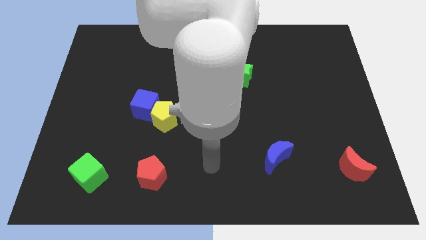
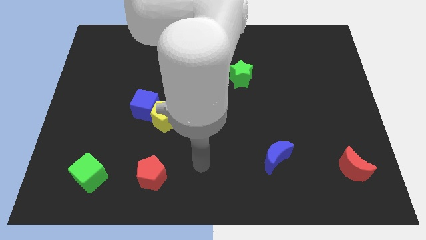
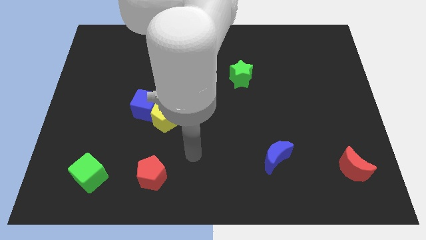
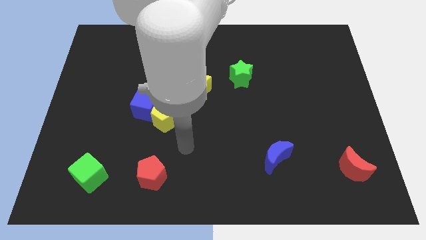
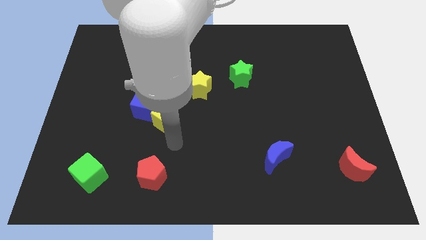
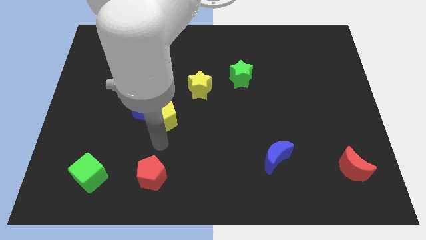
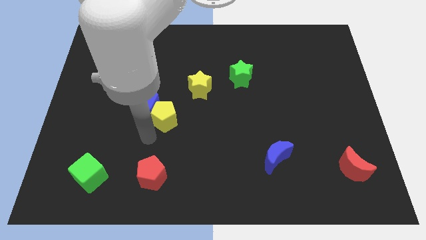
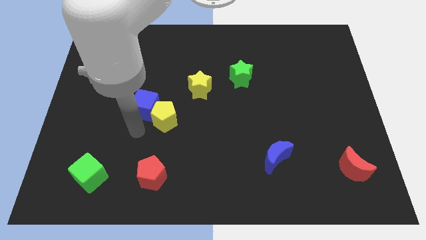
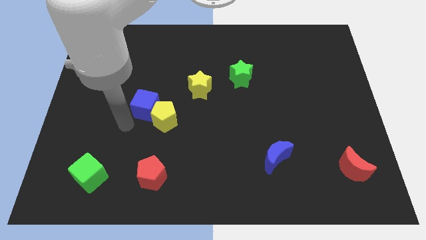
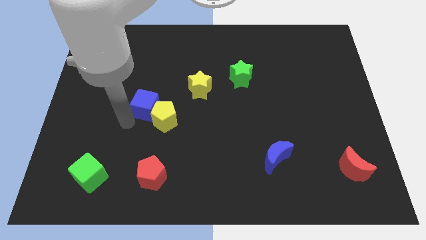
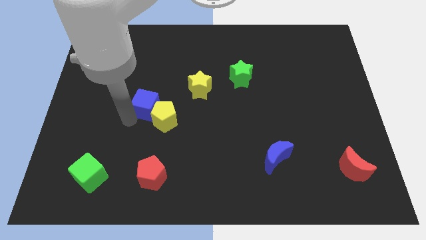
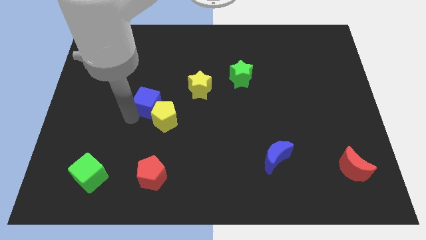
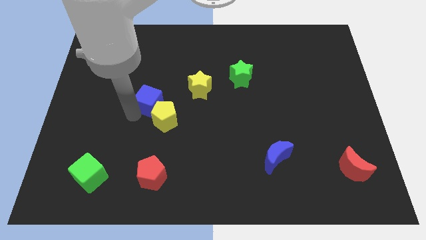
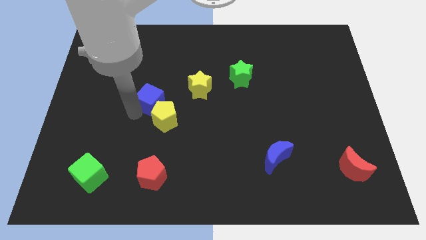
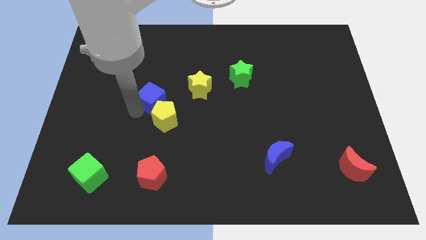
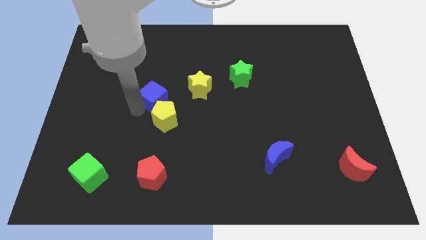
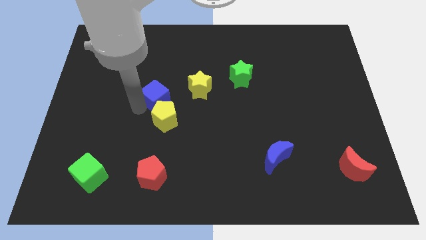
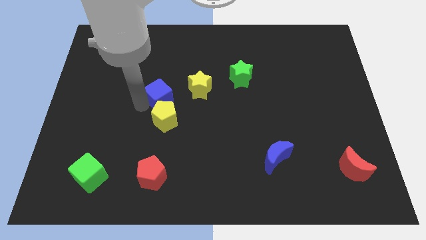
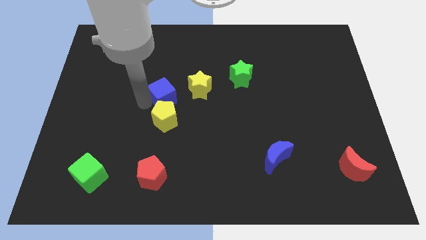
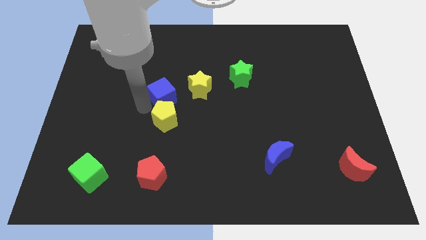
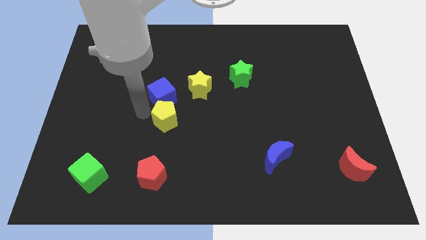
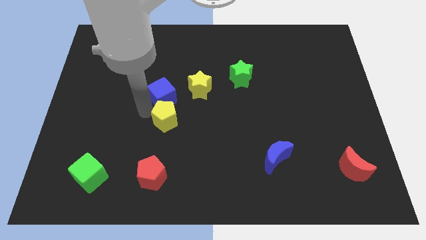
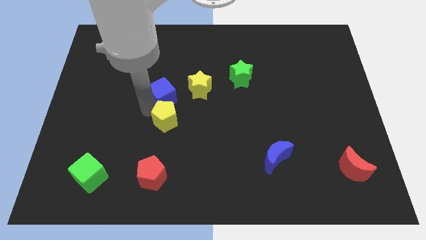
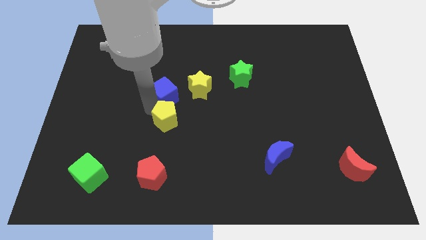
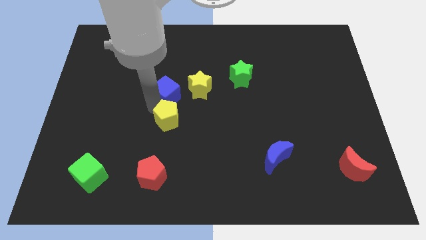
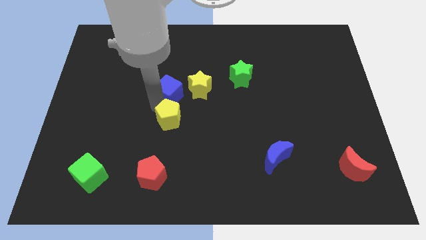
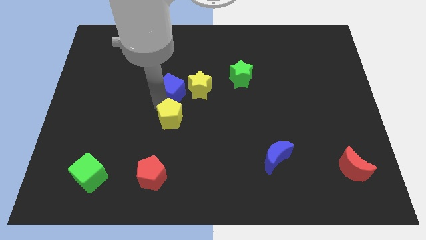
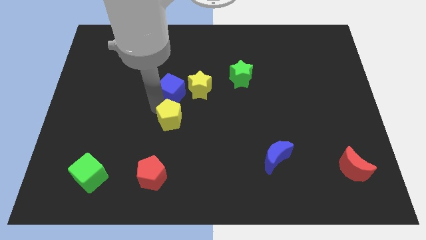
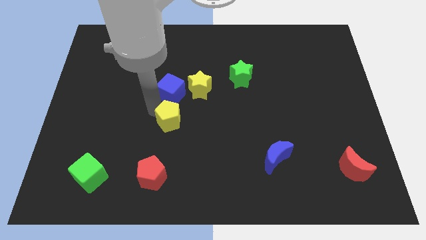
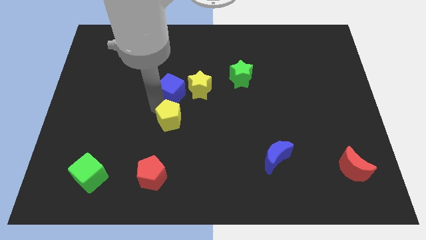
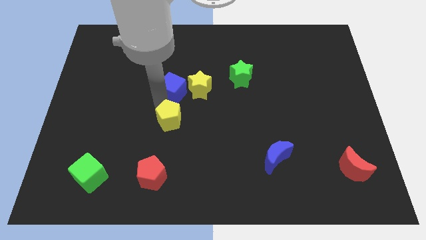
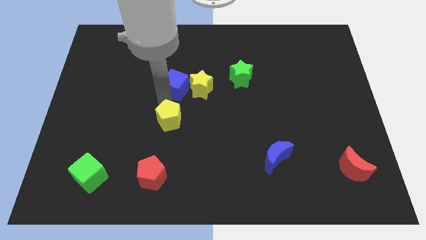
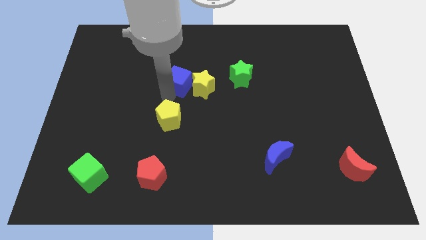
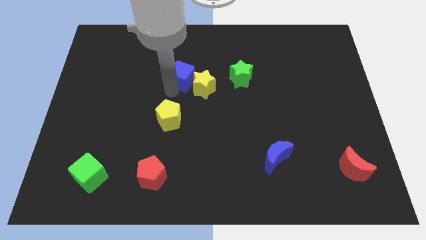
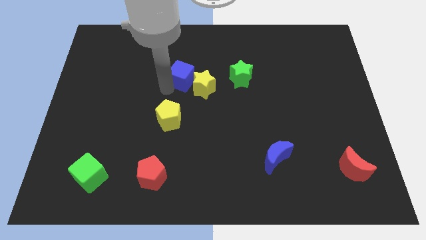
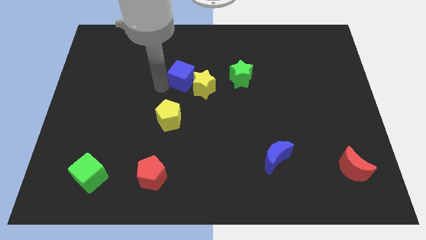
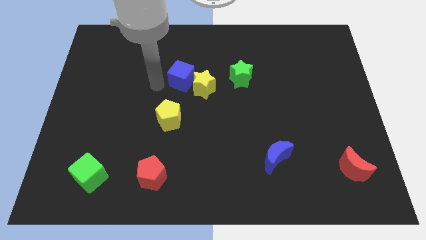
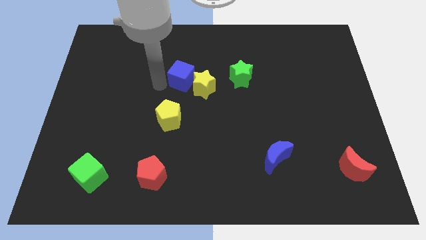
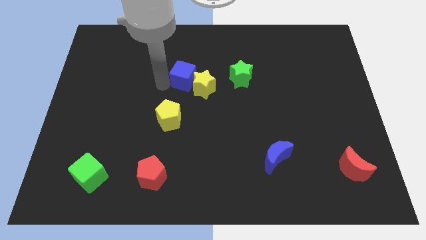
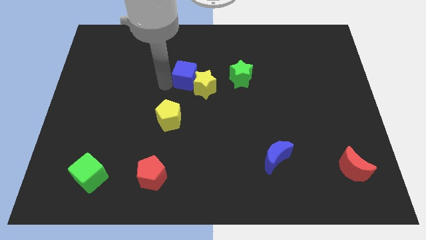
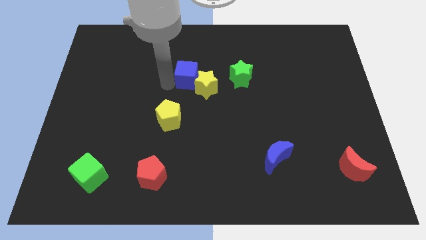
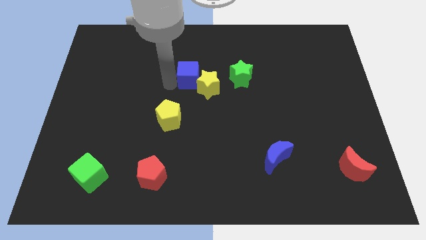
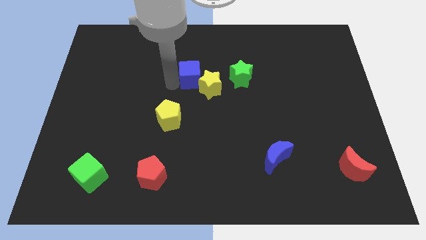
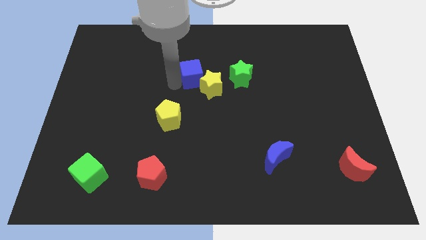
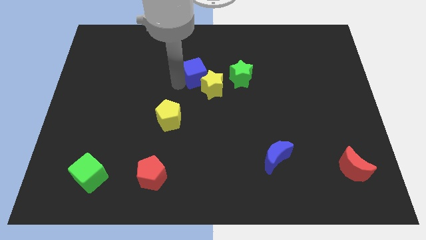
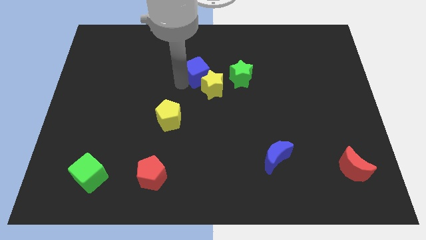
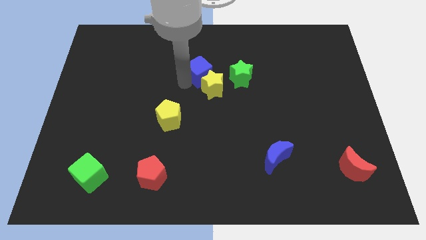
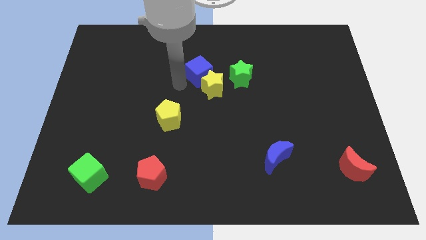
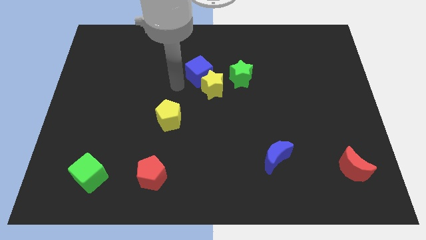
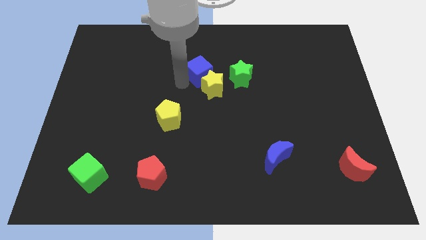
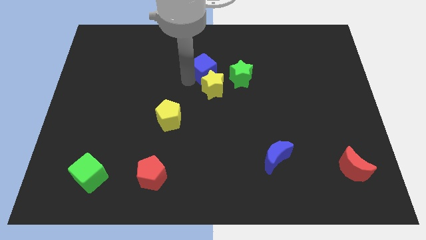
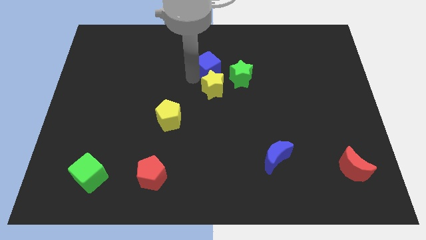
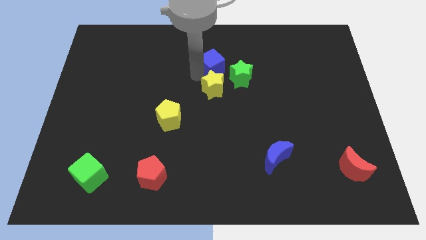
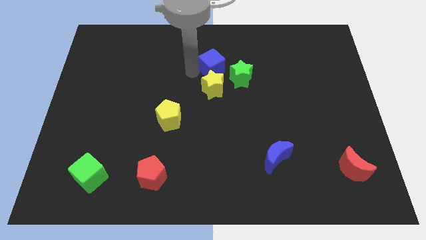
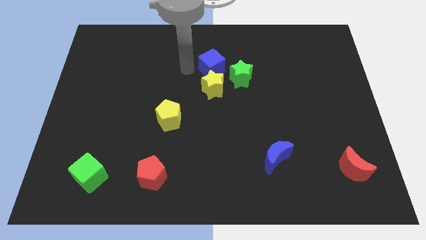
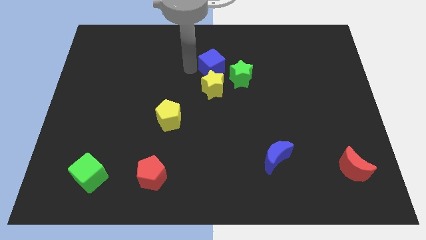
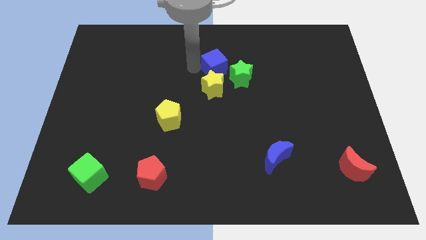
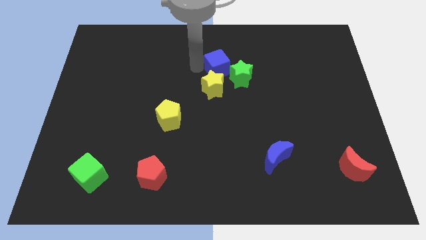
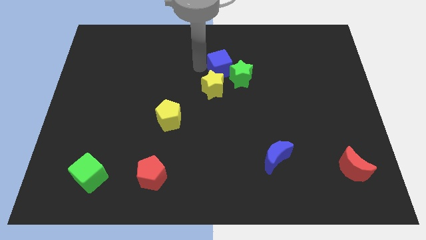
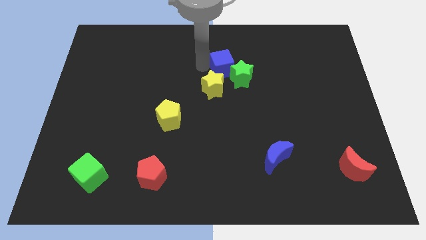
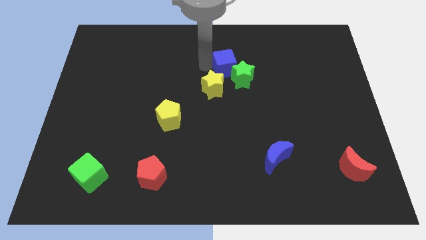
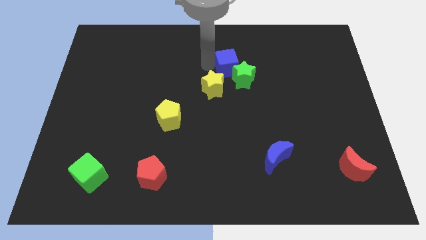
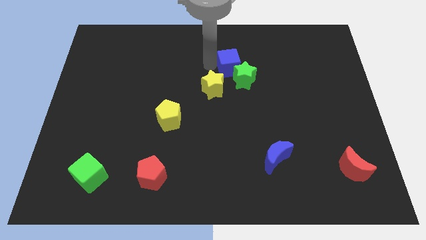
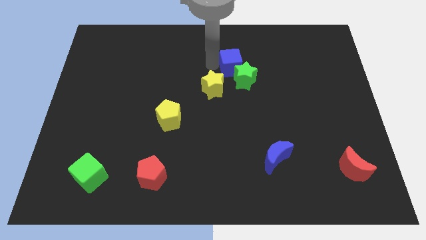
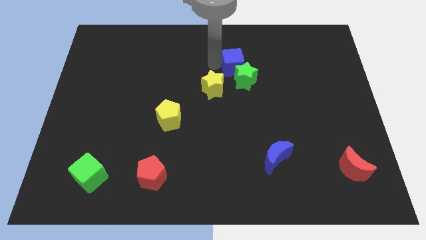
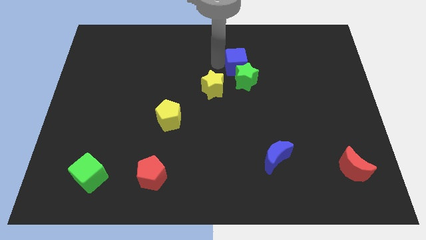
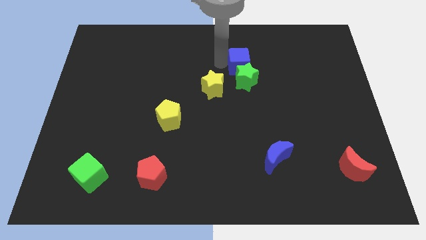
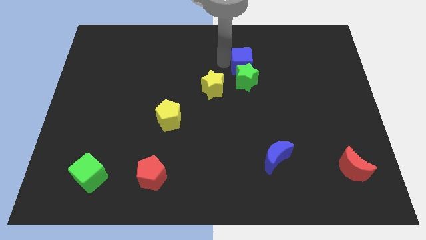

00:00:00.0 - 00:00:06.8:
slide the blue cube diagonally up and to the right of the green star

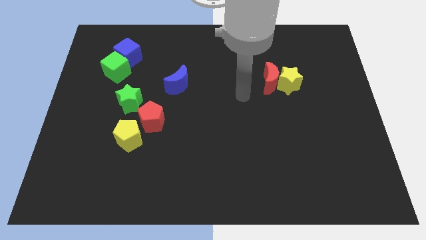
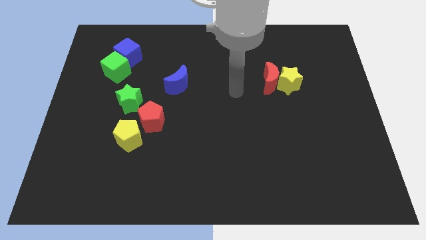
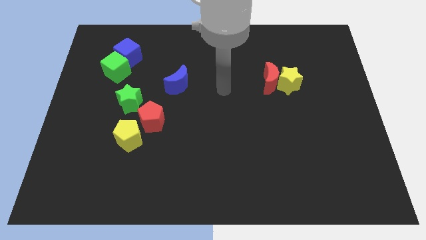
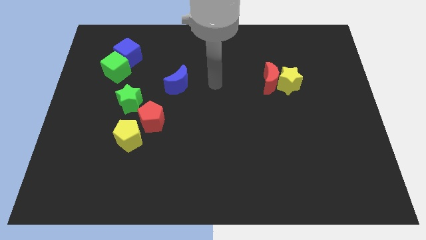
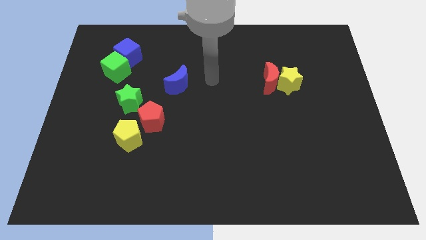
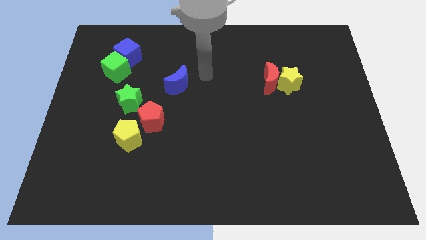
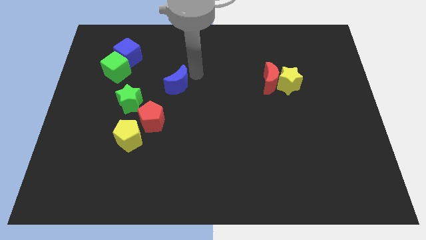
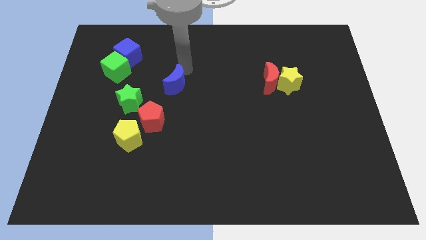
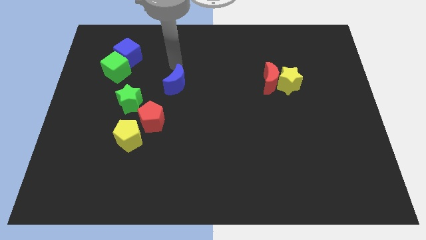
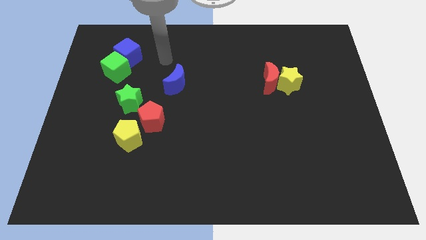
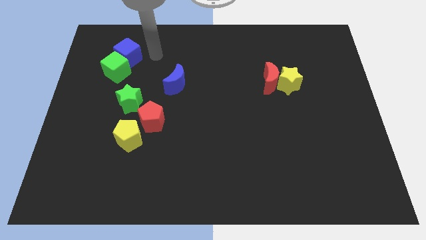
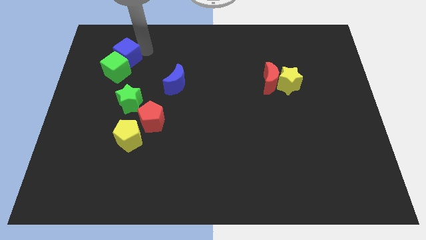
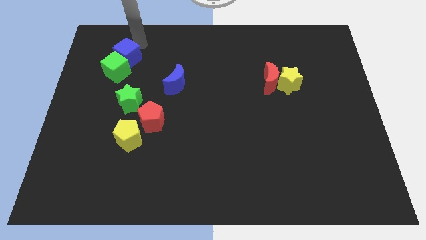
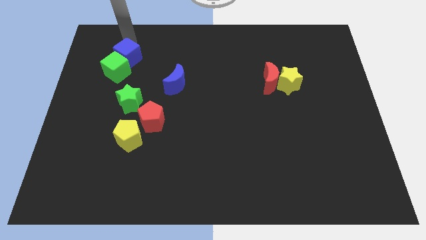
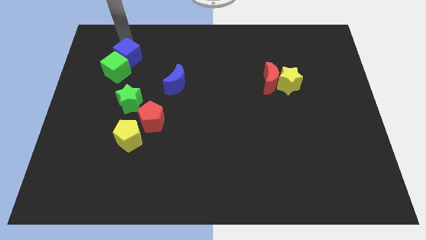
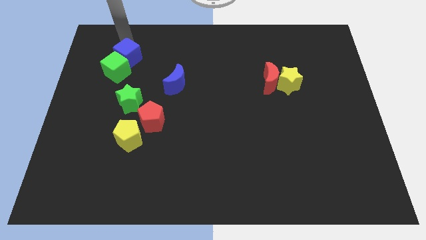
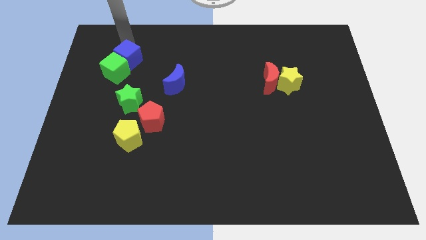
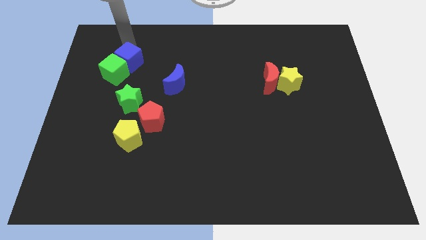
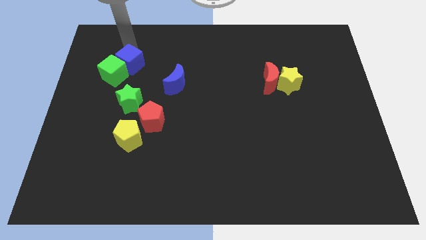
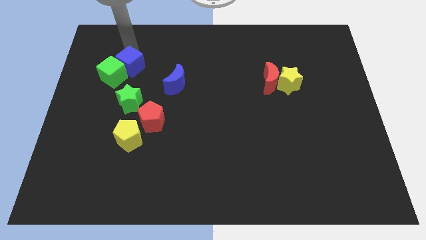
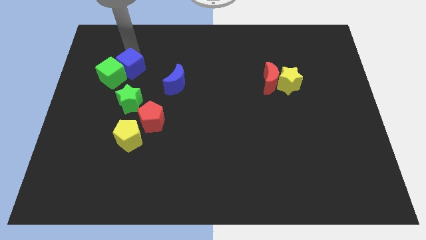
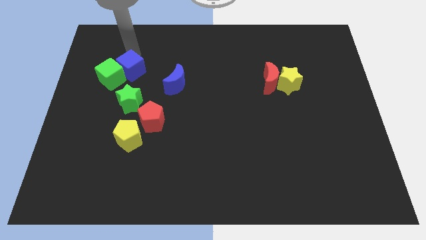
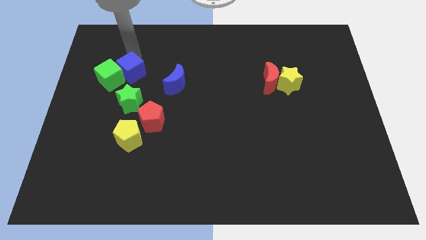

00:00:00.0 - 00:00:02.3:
push the blue cube to the left of the blue moon
